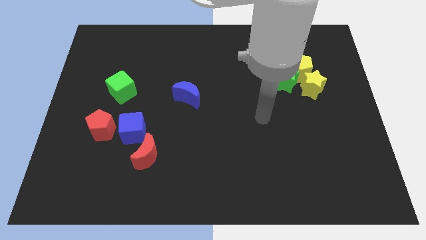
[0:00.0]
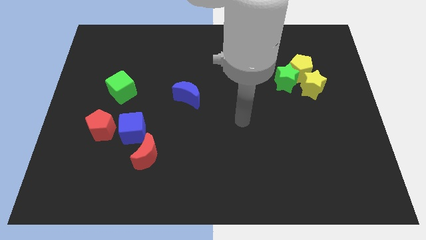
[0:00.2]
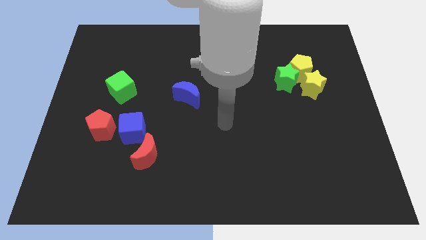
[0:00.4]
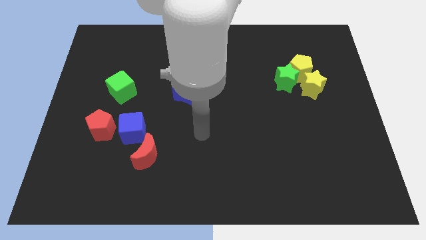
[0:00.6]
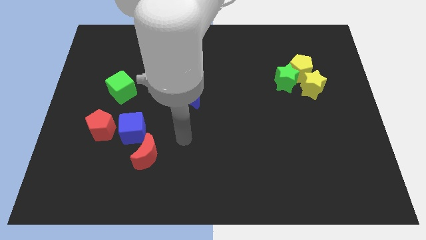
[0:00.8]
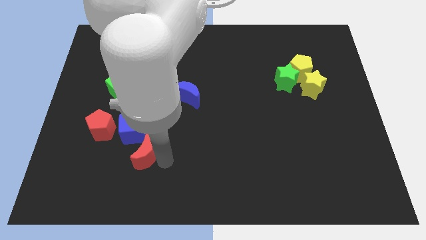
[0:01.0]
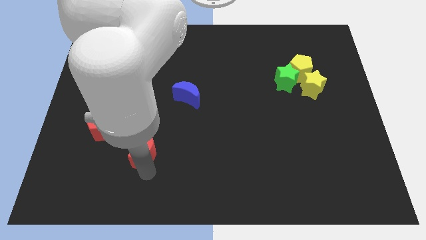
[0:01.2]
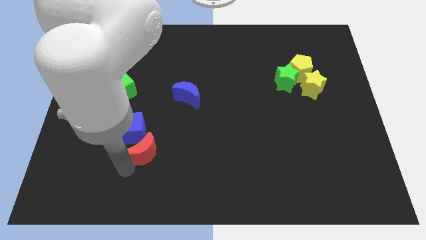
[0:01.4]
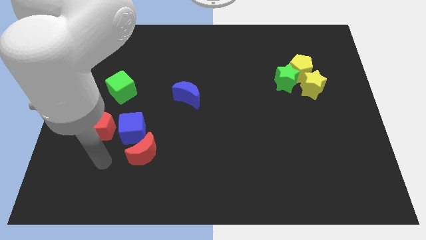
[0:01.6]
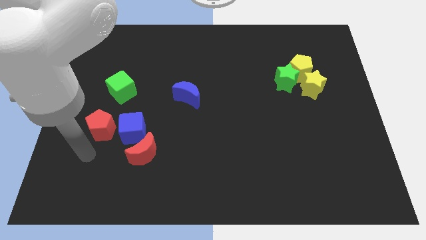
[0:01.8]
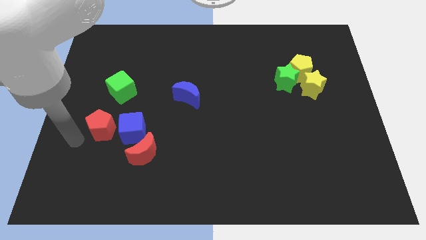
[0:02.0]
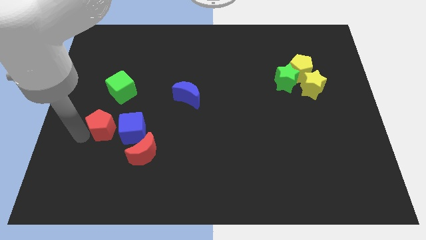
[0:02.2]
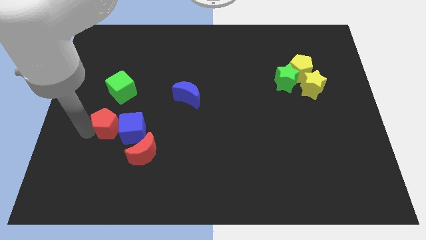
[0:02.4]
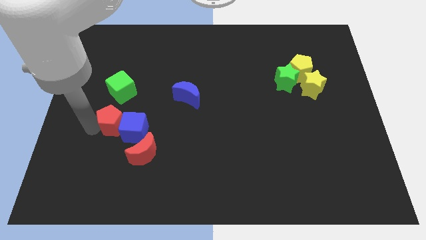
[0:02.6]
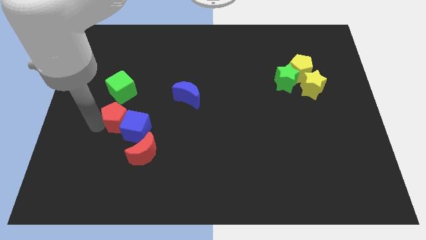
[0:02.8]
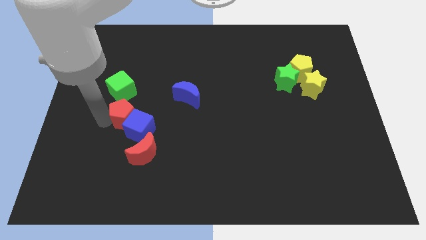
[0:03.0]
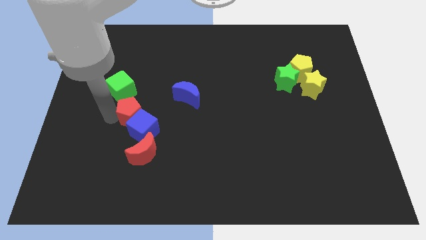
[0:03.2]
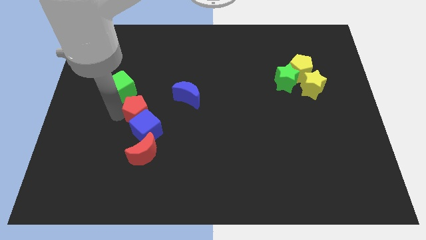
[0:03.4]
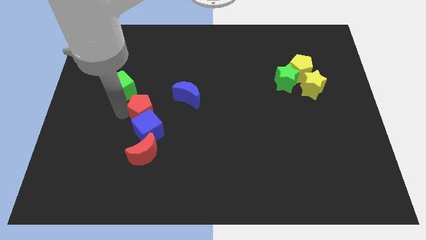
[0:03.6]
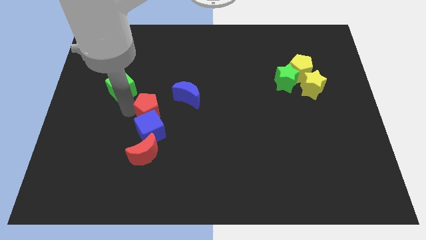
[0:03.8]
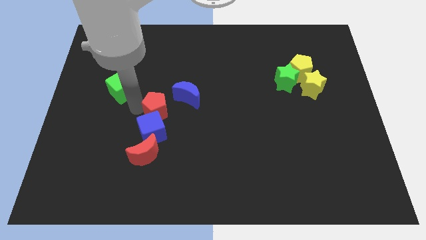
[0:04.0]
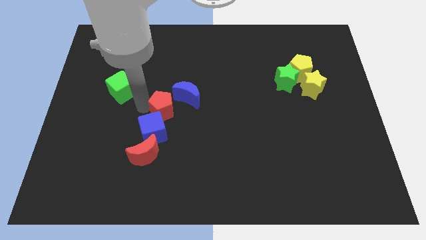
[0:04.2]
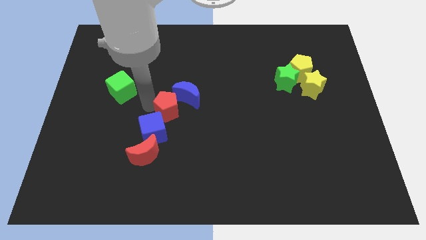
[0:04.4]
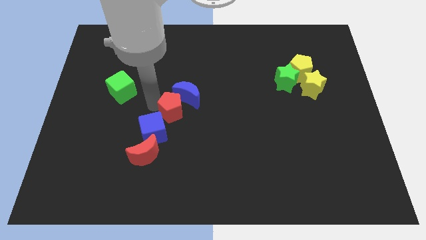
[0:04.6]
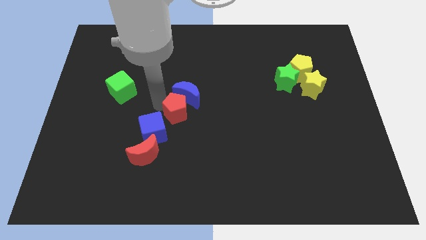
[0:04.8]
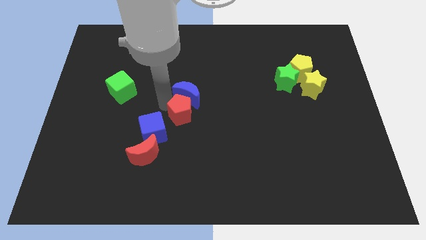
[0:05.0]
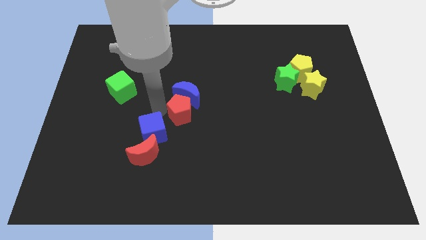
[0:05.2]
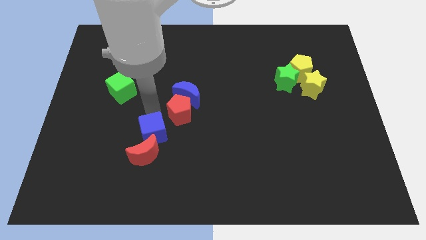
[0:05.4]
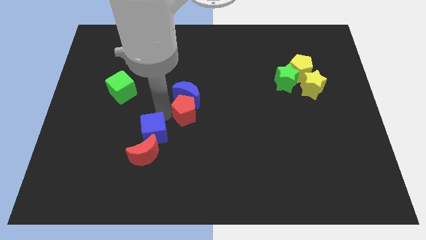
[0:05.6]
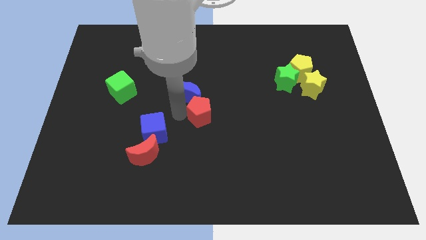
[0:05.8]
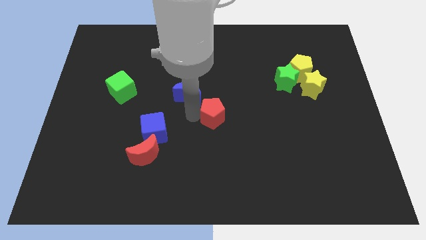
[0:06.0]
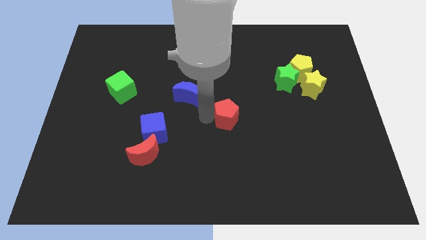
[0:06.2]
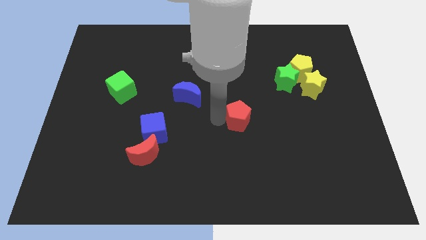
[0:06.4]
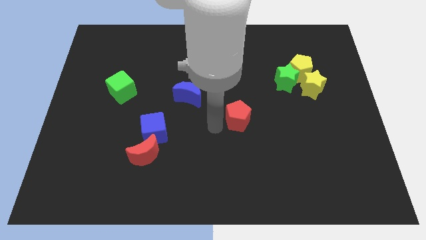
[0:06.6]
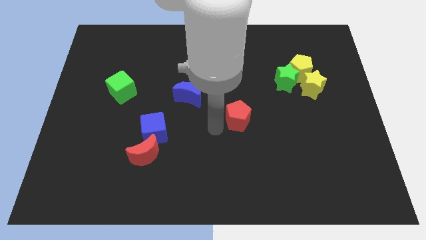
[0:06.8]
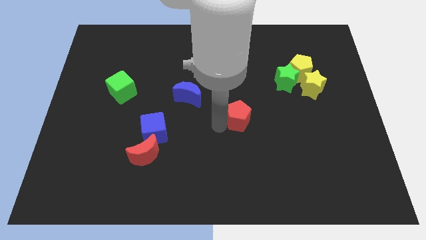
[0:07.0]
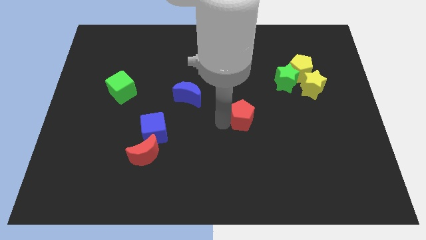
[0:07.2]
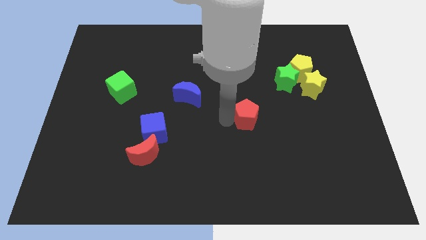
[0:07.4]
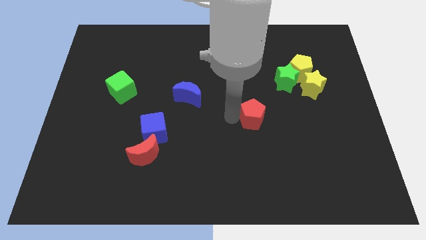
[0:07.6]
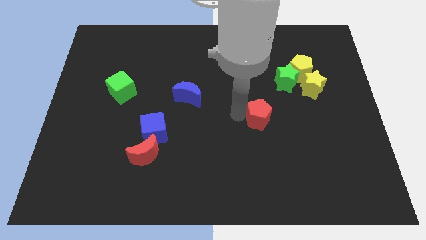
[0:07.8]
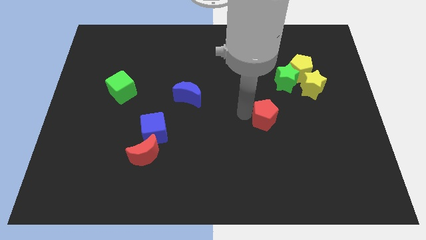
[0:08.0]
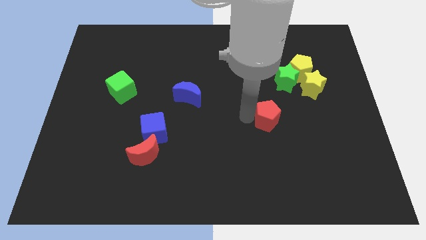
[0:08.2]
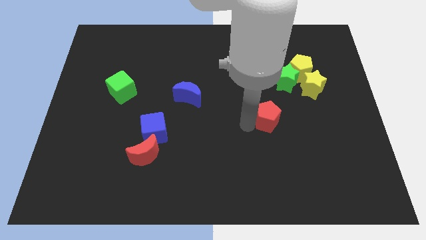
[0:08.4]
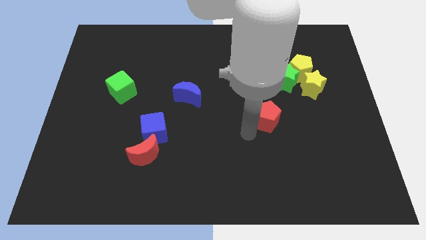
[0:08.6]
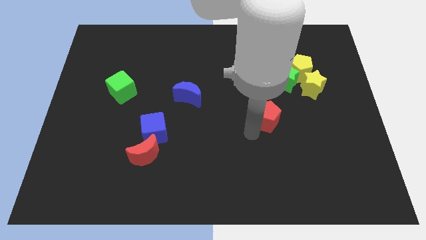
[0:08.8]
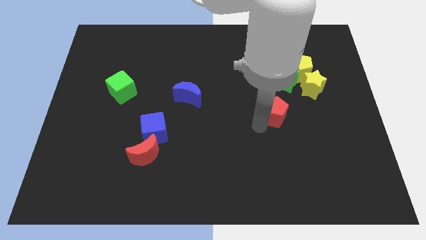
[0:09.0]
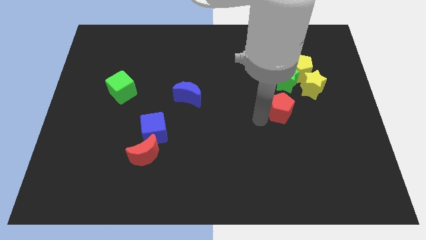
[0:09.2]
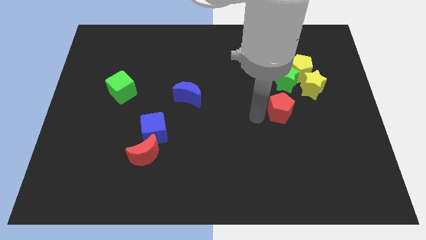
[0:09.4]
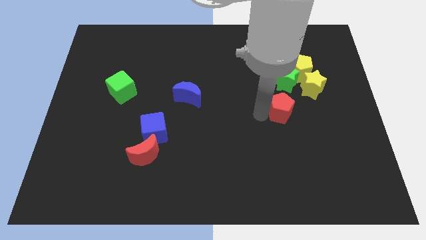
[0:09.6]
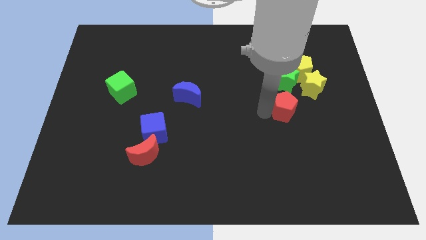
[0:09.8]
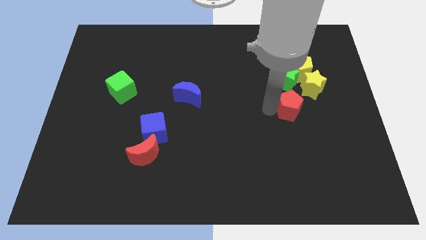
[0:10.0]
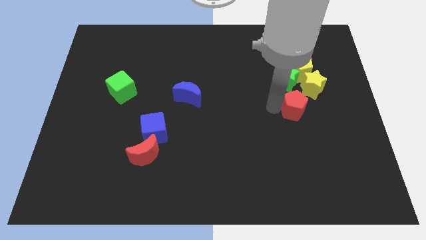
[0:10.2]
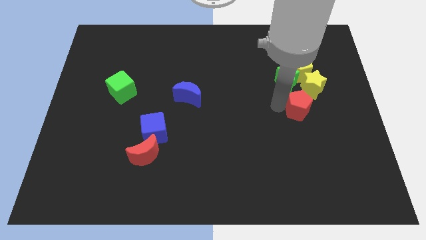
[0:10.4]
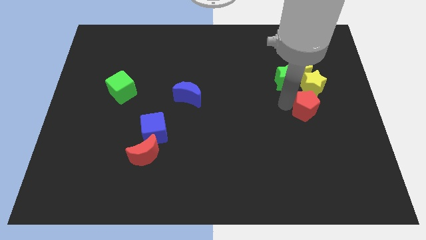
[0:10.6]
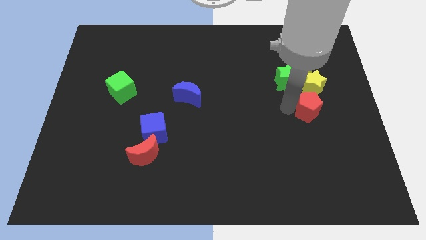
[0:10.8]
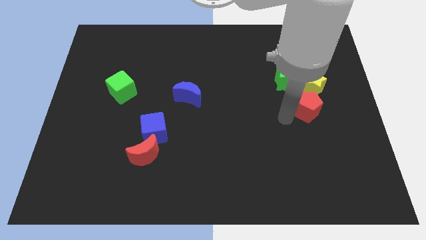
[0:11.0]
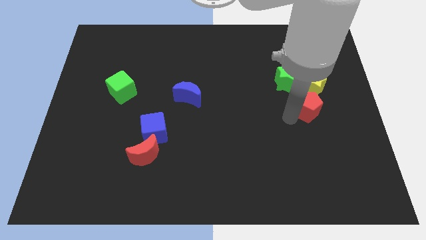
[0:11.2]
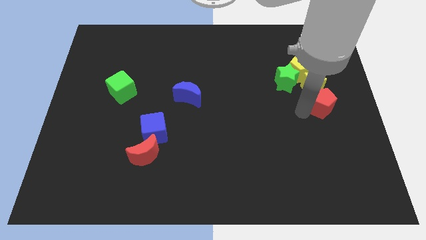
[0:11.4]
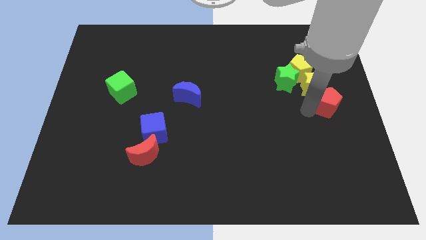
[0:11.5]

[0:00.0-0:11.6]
put the red pentagon to the bottom right of the yellow pentagon

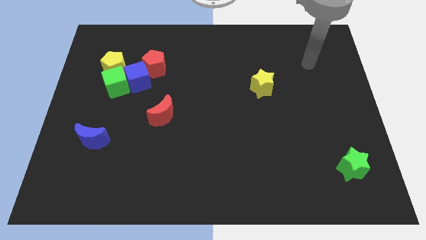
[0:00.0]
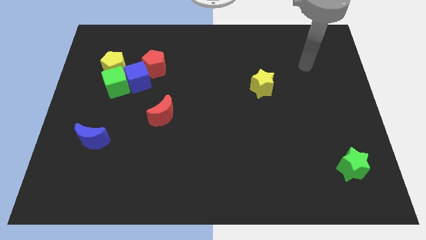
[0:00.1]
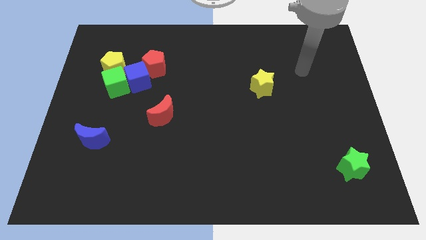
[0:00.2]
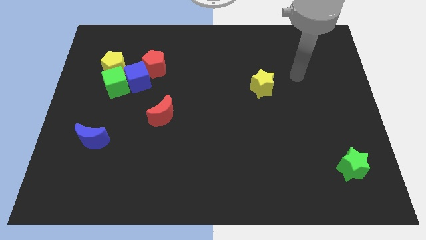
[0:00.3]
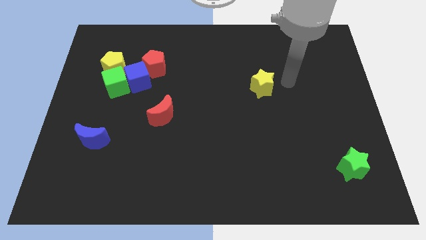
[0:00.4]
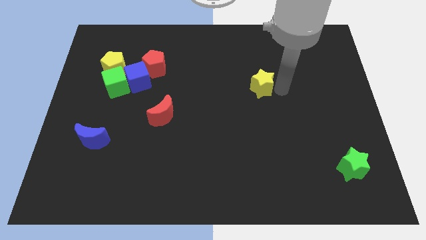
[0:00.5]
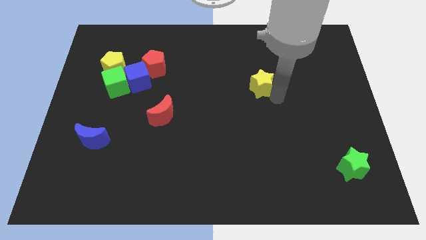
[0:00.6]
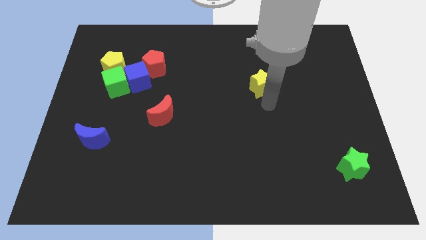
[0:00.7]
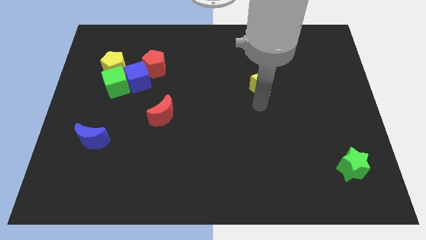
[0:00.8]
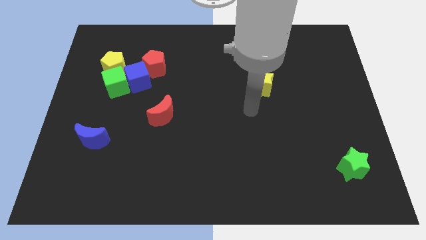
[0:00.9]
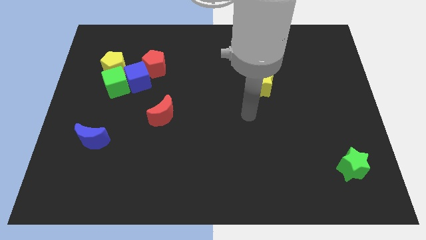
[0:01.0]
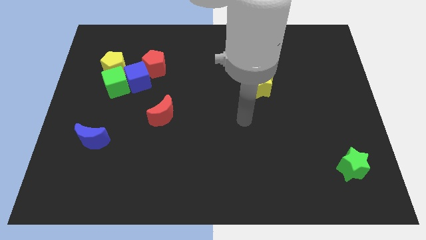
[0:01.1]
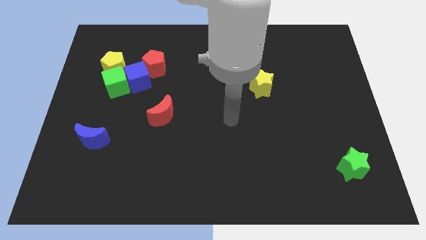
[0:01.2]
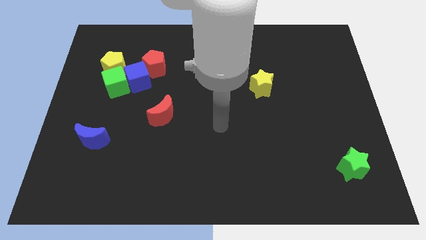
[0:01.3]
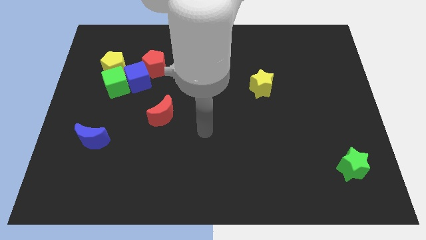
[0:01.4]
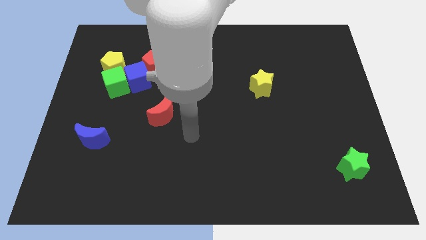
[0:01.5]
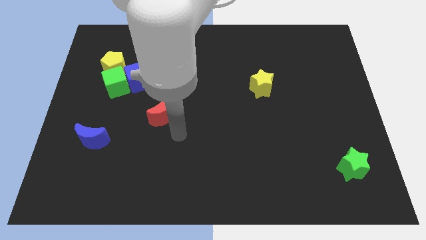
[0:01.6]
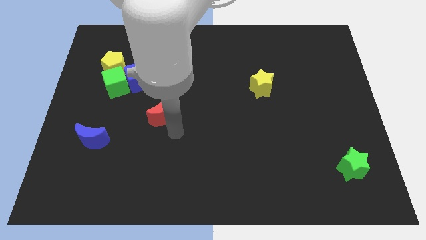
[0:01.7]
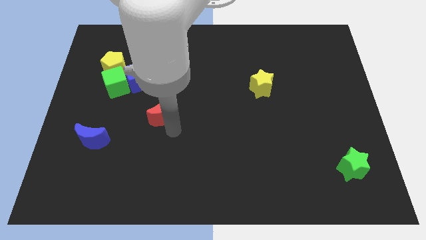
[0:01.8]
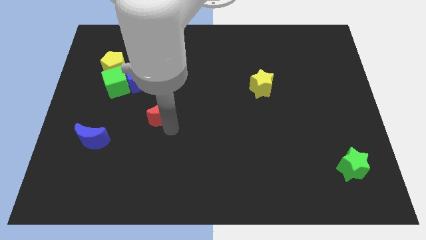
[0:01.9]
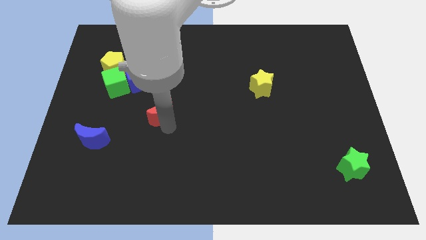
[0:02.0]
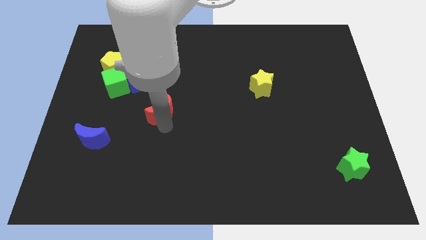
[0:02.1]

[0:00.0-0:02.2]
move the red moon to the bottom side of the red pentagon
